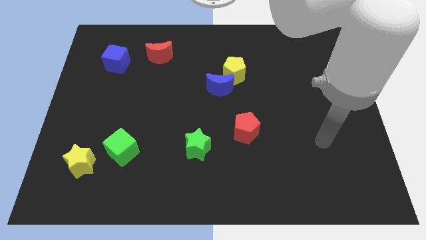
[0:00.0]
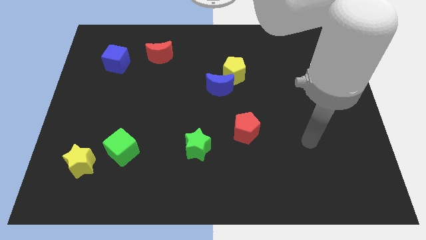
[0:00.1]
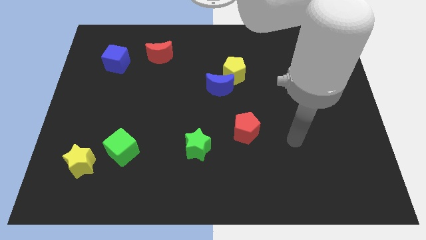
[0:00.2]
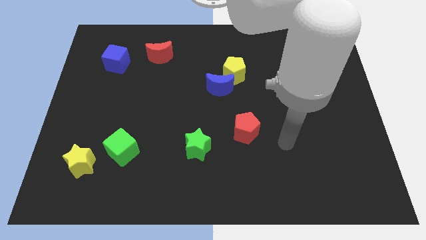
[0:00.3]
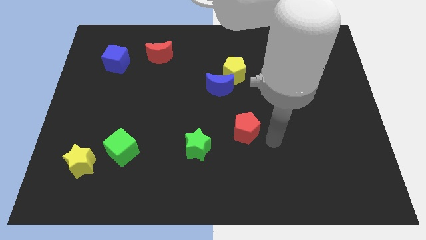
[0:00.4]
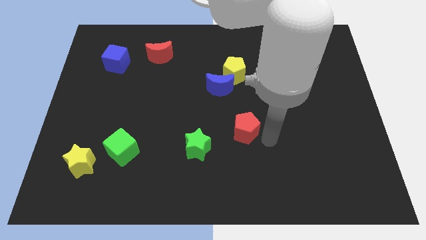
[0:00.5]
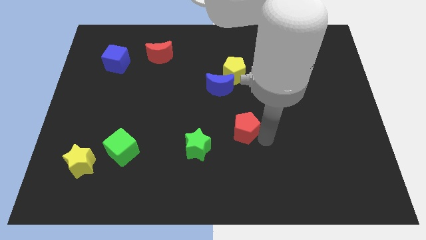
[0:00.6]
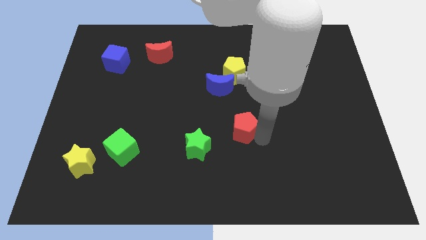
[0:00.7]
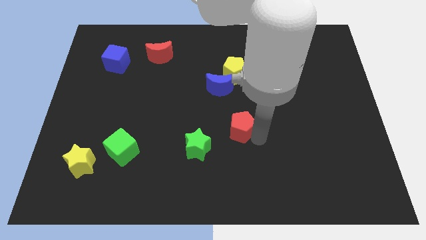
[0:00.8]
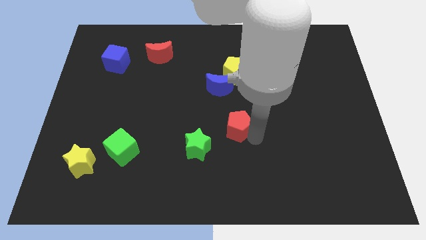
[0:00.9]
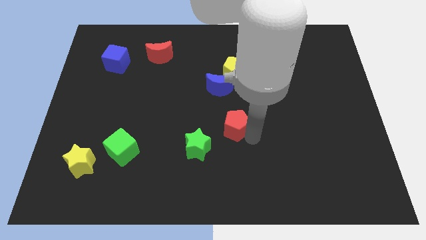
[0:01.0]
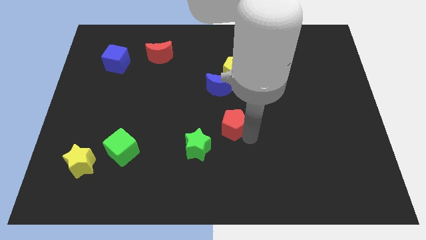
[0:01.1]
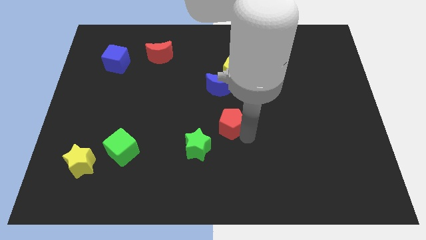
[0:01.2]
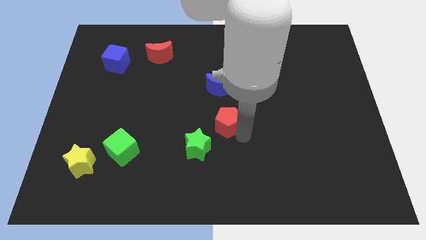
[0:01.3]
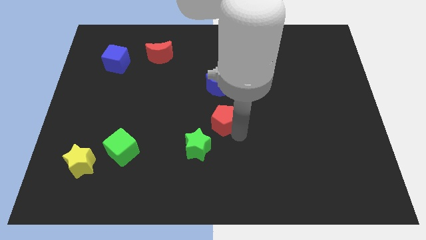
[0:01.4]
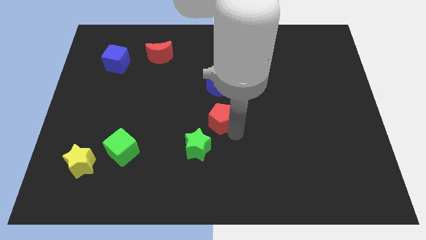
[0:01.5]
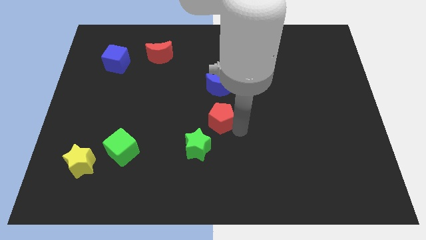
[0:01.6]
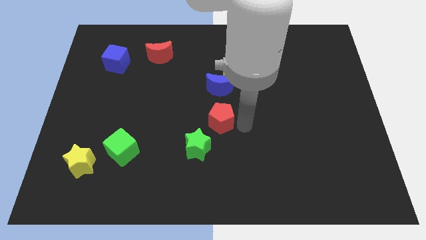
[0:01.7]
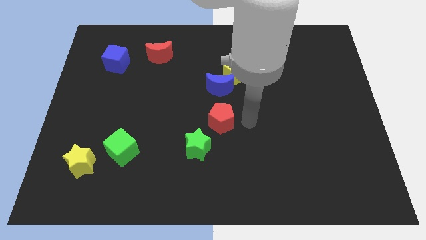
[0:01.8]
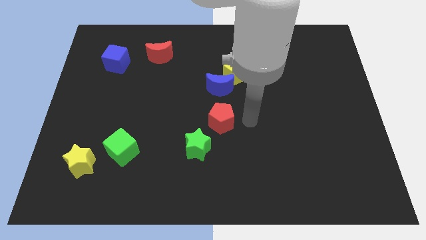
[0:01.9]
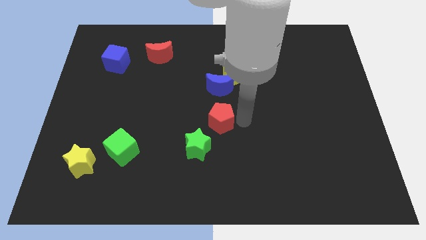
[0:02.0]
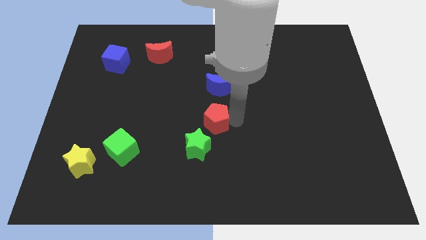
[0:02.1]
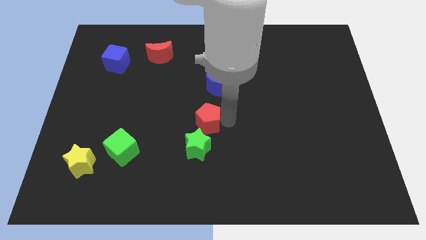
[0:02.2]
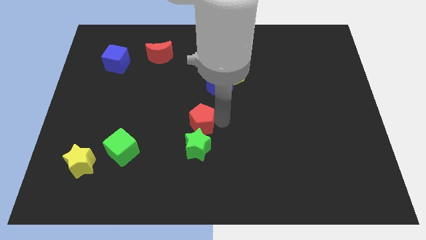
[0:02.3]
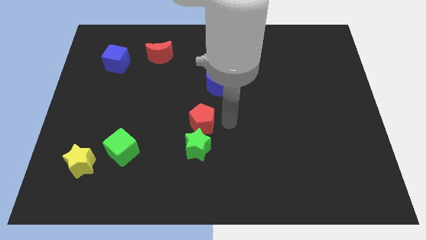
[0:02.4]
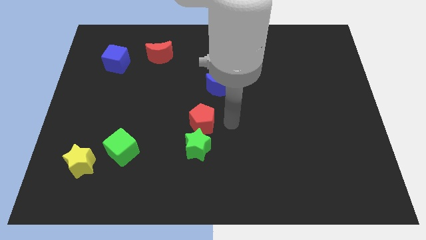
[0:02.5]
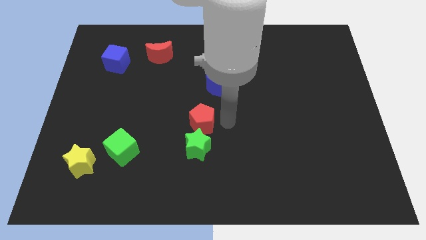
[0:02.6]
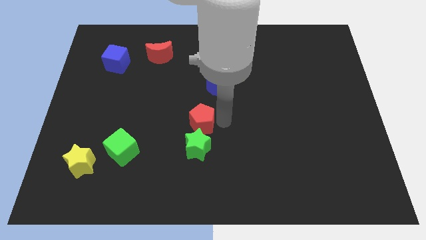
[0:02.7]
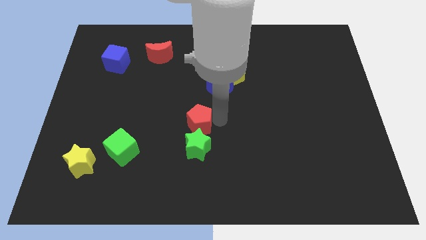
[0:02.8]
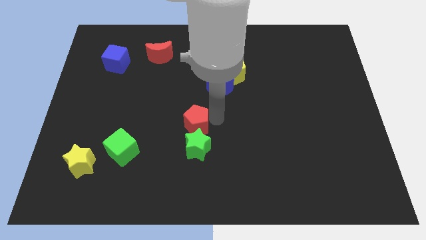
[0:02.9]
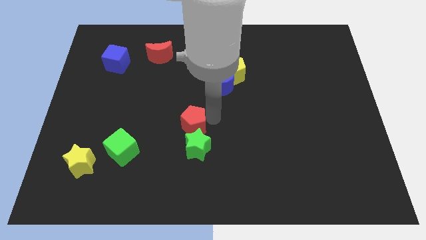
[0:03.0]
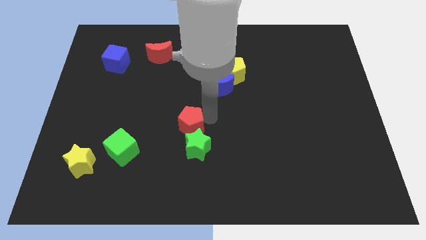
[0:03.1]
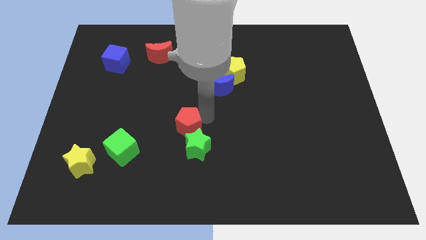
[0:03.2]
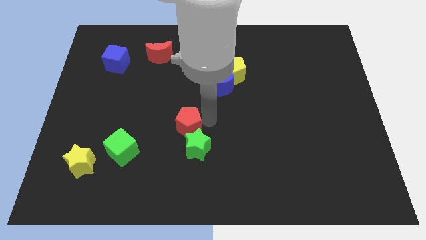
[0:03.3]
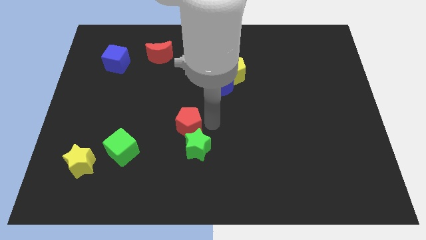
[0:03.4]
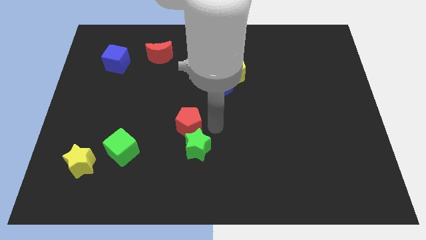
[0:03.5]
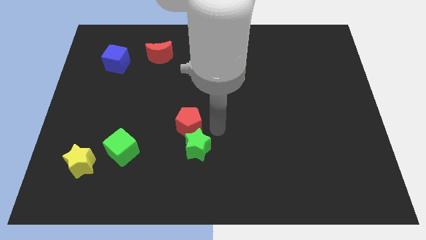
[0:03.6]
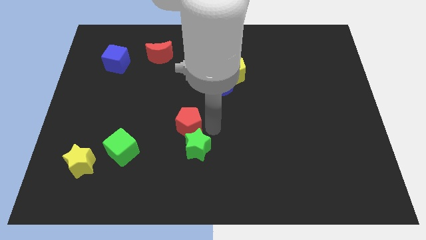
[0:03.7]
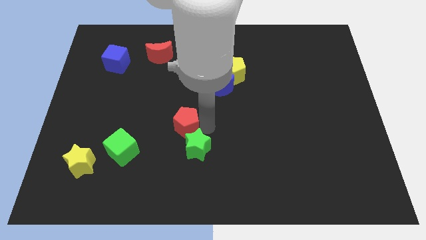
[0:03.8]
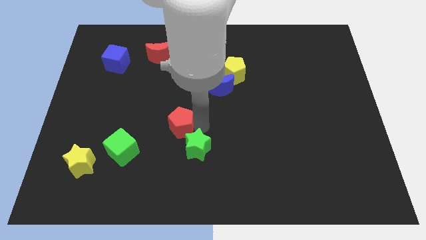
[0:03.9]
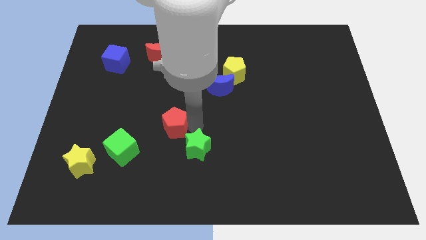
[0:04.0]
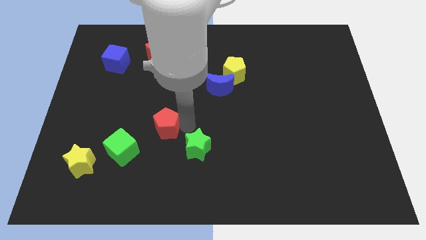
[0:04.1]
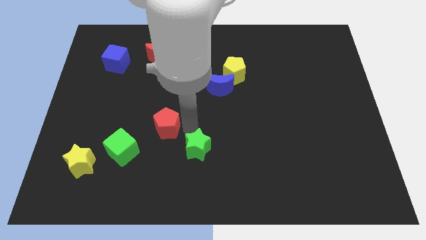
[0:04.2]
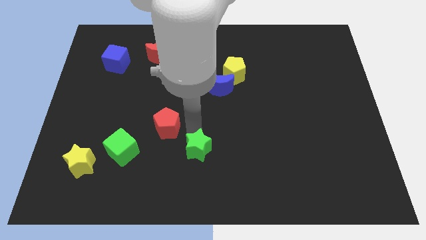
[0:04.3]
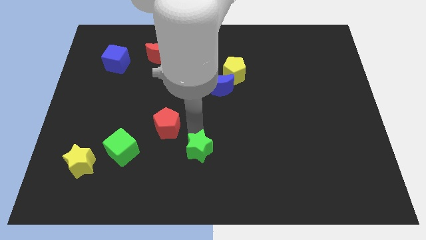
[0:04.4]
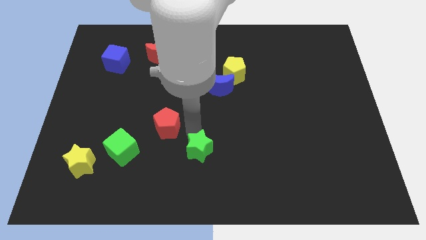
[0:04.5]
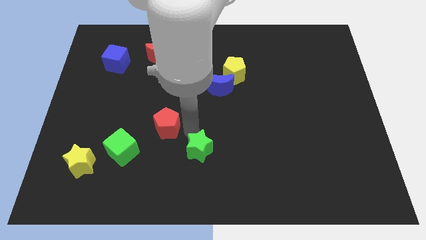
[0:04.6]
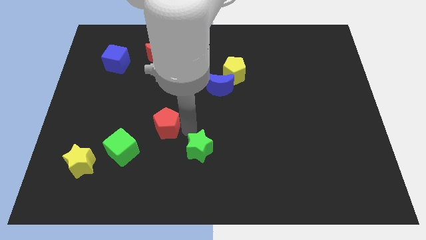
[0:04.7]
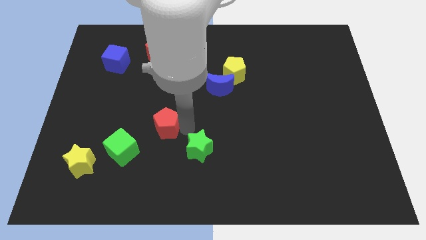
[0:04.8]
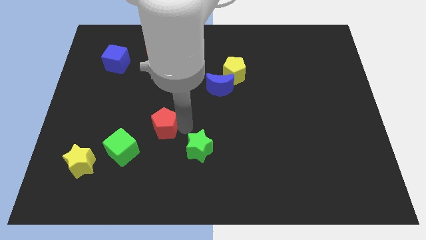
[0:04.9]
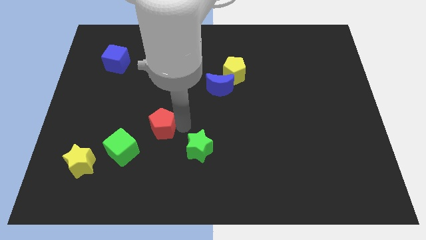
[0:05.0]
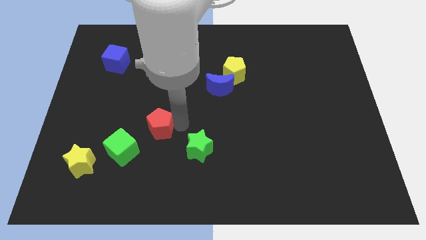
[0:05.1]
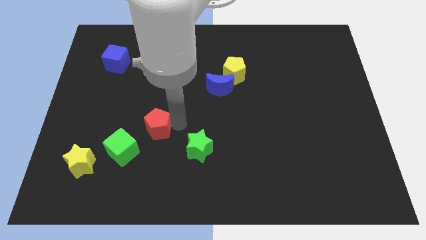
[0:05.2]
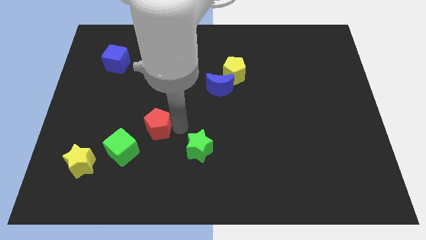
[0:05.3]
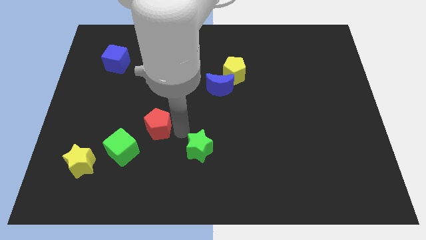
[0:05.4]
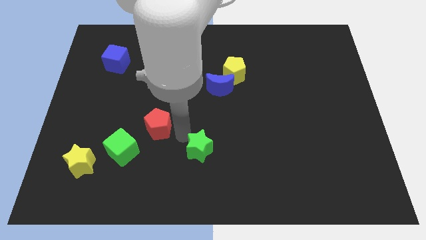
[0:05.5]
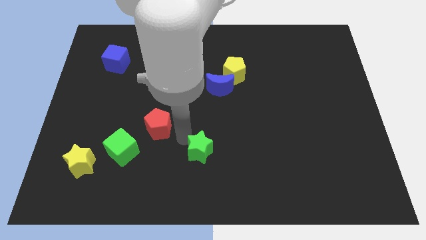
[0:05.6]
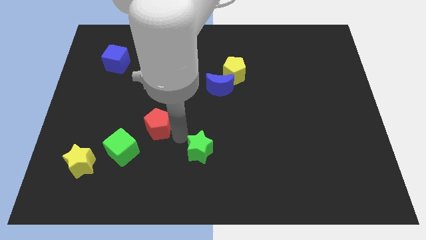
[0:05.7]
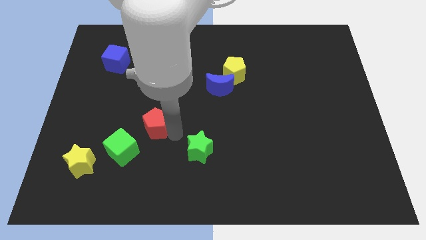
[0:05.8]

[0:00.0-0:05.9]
push the red pentagon left

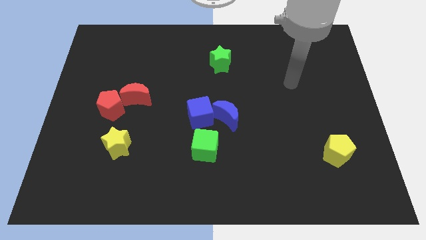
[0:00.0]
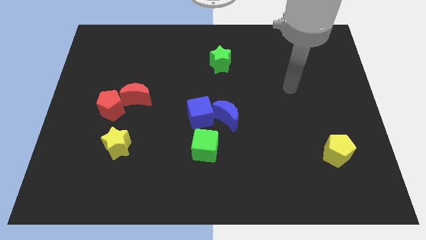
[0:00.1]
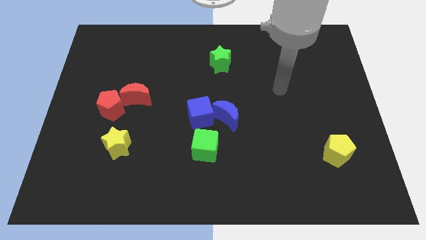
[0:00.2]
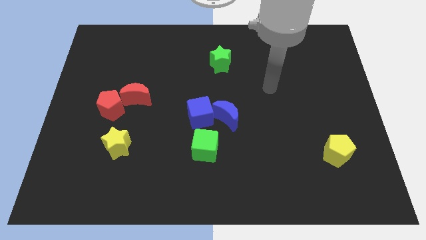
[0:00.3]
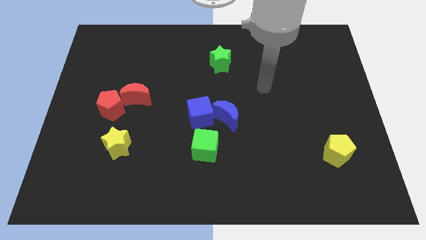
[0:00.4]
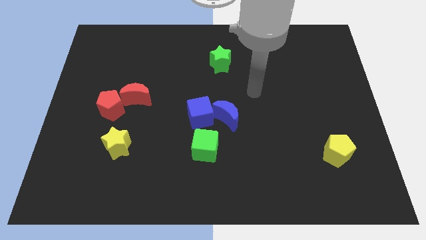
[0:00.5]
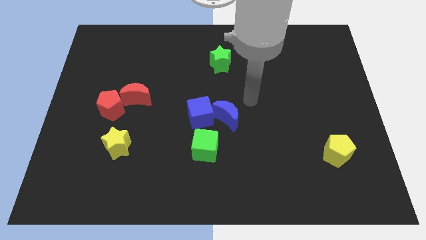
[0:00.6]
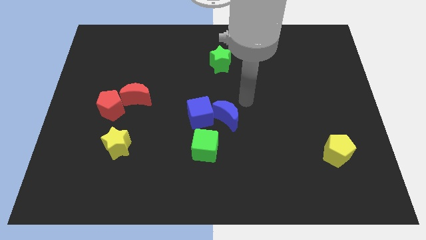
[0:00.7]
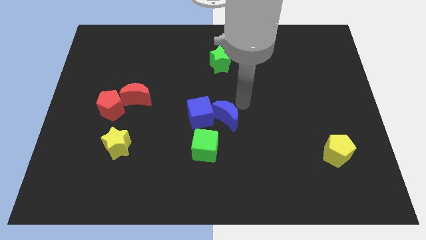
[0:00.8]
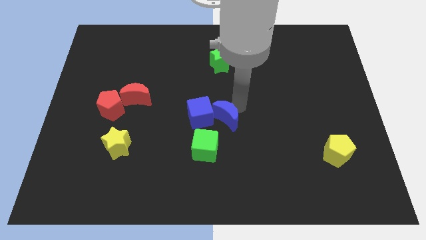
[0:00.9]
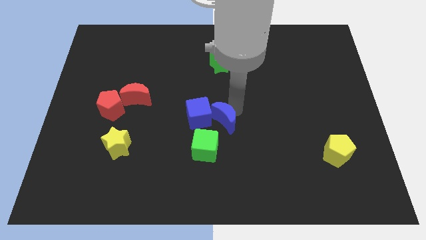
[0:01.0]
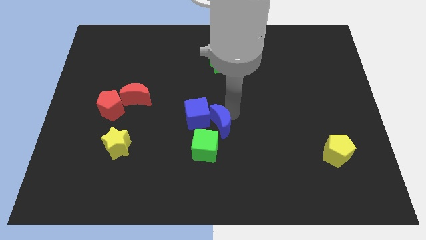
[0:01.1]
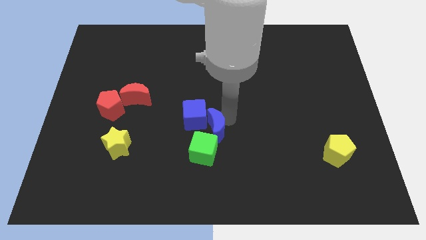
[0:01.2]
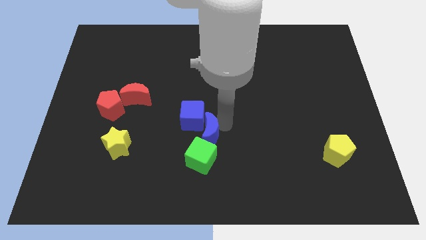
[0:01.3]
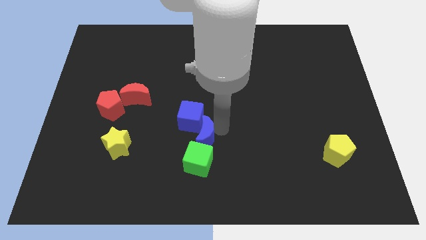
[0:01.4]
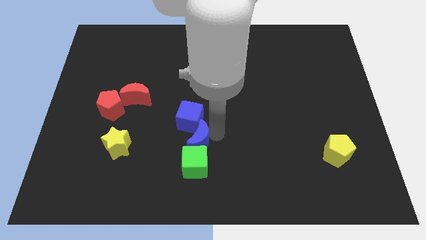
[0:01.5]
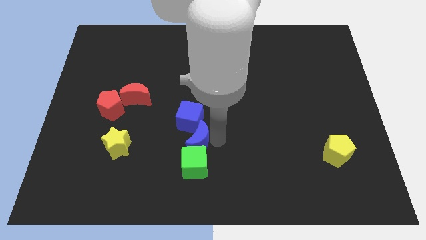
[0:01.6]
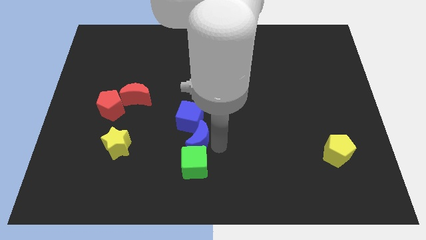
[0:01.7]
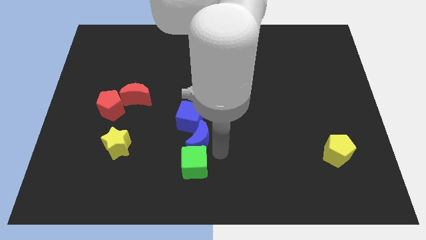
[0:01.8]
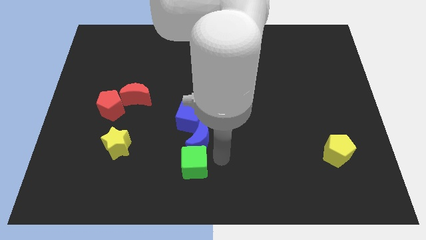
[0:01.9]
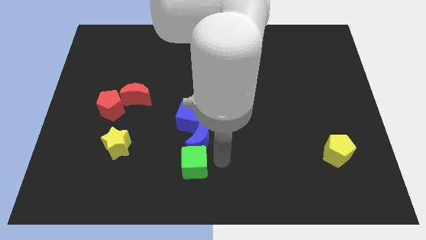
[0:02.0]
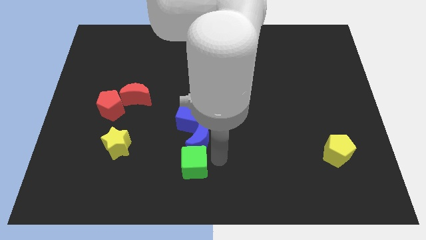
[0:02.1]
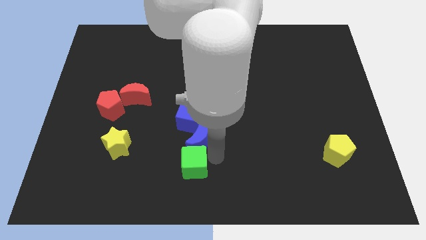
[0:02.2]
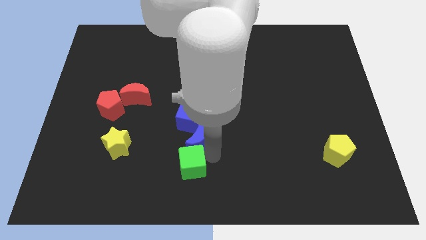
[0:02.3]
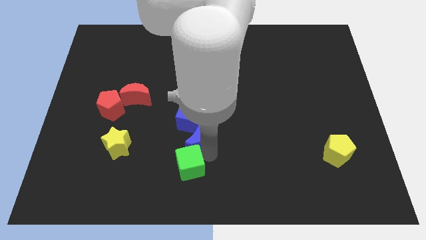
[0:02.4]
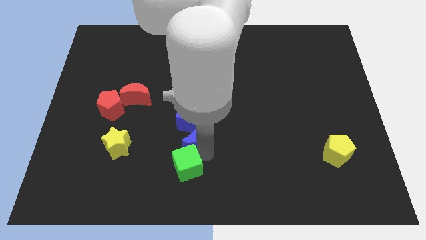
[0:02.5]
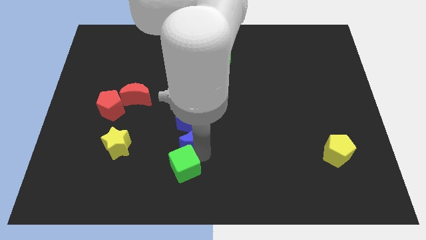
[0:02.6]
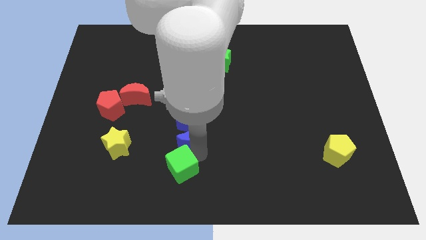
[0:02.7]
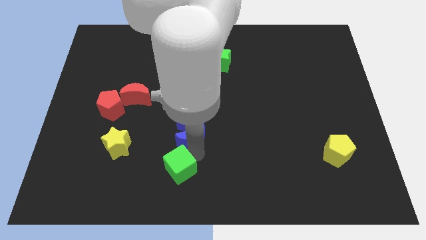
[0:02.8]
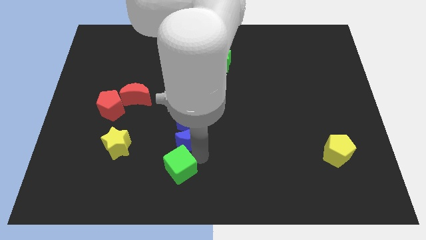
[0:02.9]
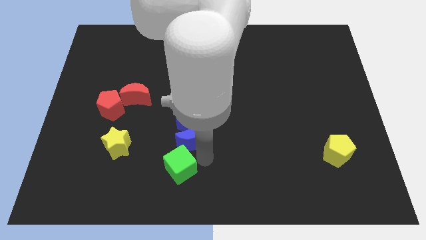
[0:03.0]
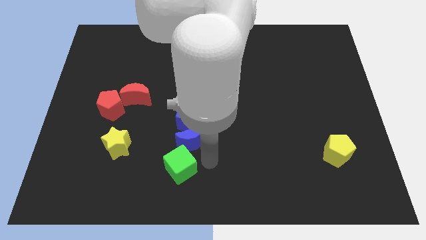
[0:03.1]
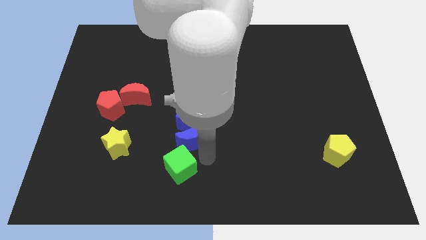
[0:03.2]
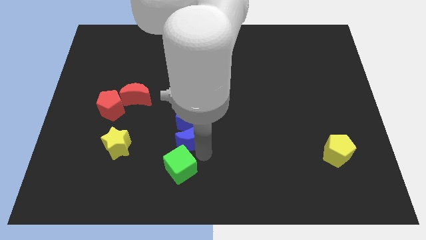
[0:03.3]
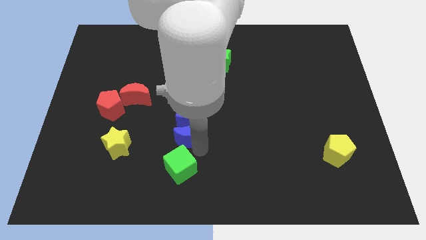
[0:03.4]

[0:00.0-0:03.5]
slightly move the blue moon left
